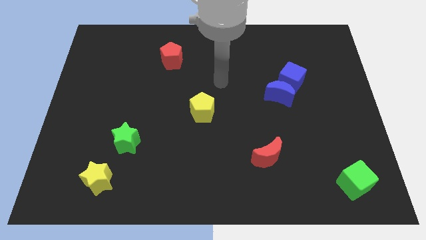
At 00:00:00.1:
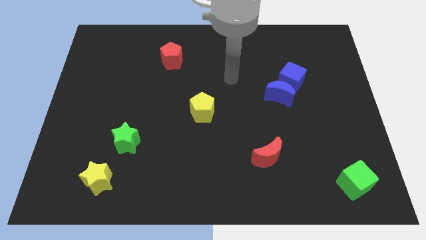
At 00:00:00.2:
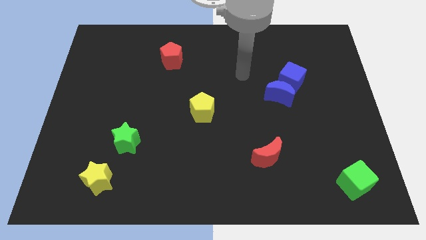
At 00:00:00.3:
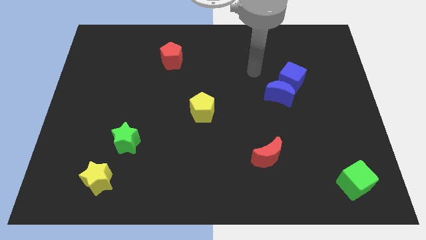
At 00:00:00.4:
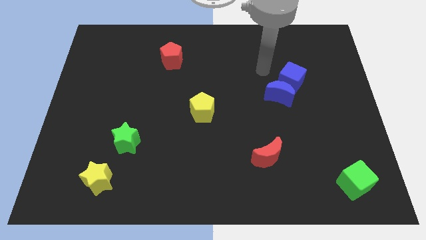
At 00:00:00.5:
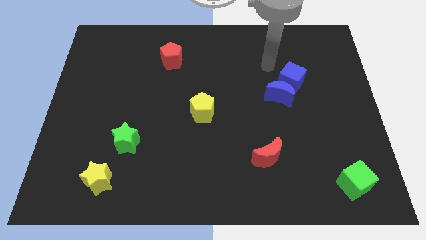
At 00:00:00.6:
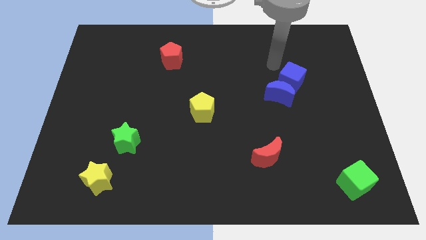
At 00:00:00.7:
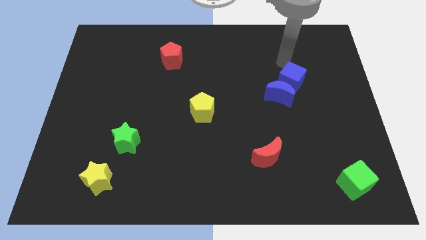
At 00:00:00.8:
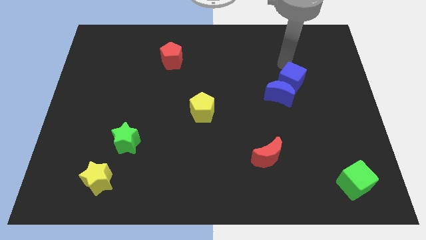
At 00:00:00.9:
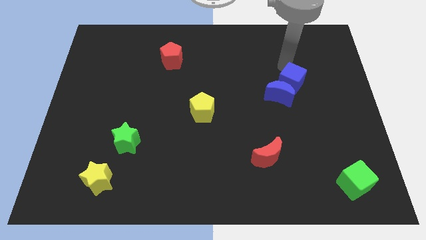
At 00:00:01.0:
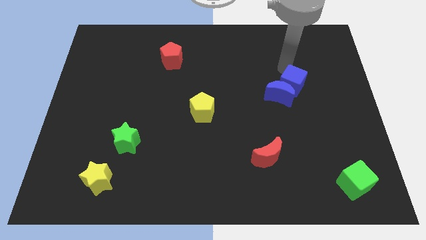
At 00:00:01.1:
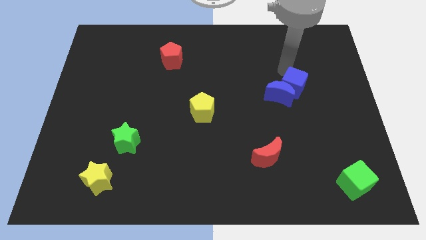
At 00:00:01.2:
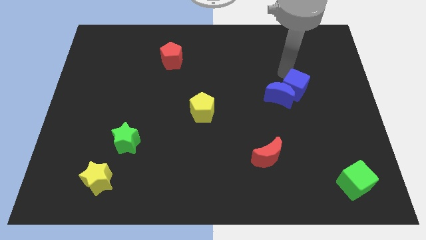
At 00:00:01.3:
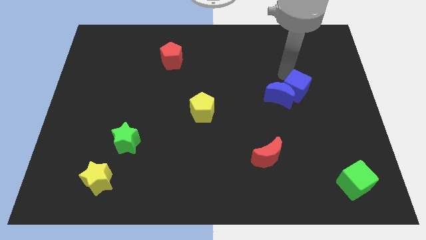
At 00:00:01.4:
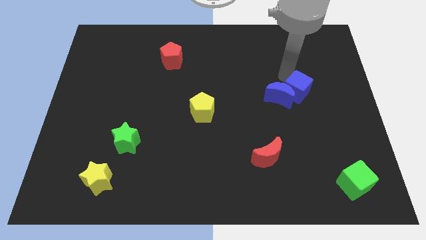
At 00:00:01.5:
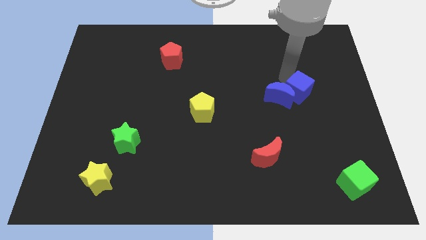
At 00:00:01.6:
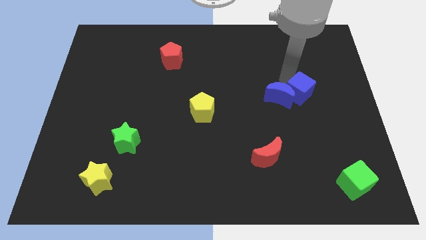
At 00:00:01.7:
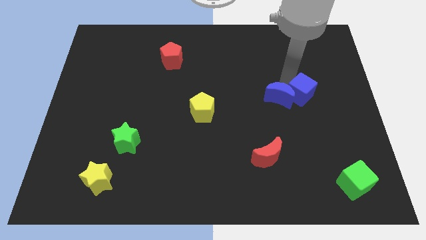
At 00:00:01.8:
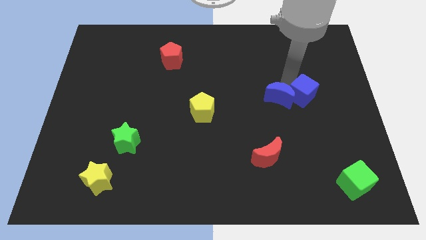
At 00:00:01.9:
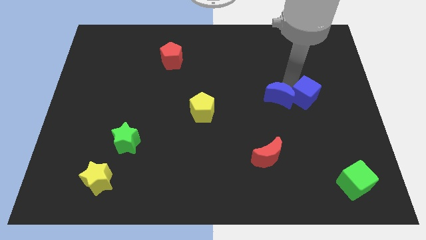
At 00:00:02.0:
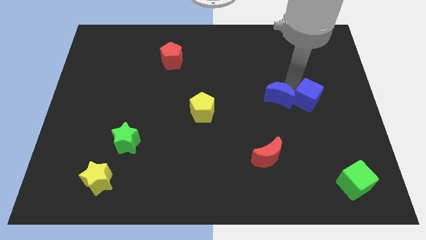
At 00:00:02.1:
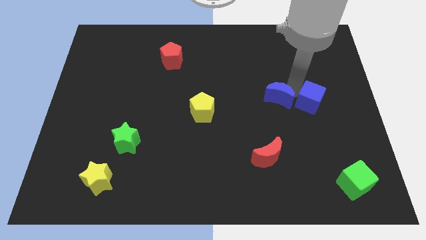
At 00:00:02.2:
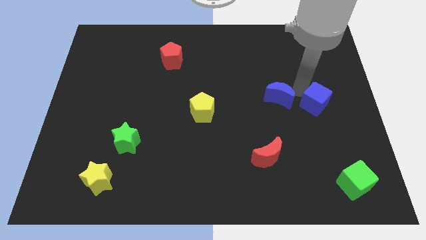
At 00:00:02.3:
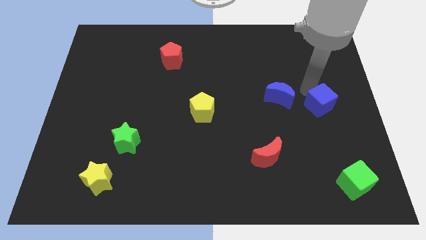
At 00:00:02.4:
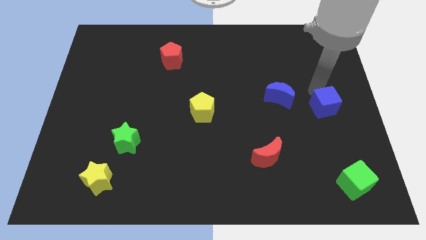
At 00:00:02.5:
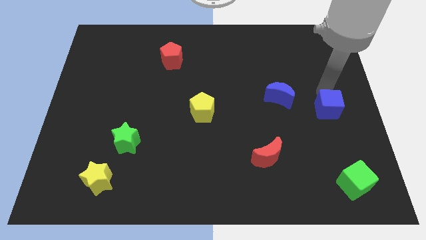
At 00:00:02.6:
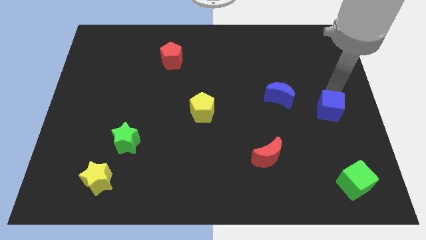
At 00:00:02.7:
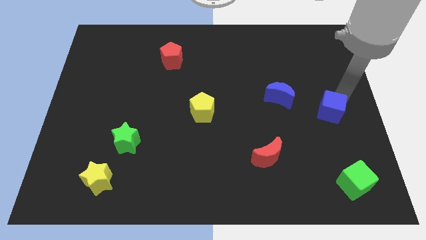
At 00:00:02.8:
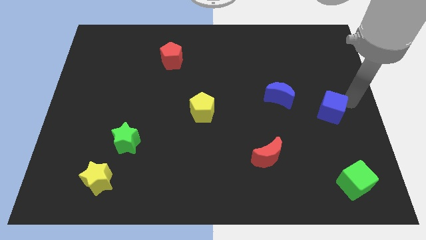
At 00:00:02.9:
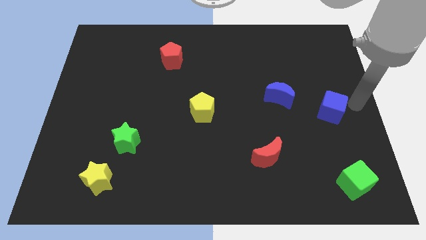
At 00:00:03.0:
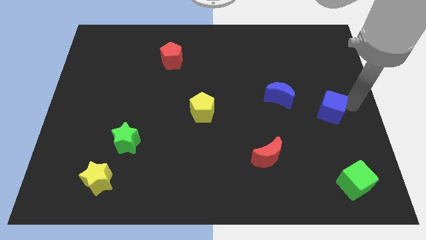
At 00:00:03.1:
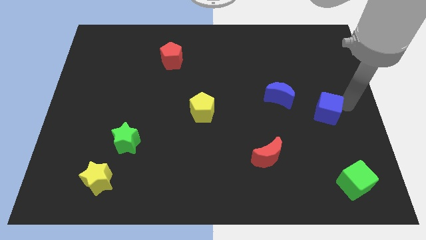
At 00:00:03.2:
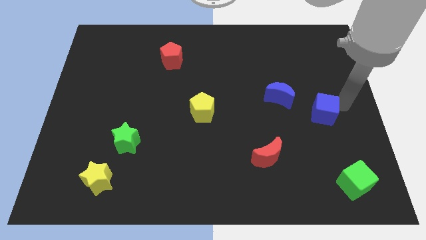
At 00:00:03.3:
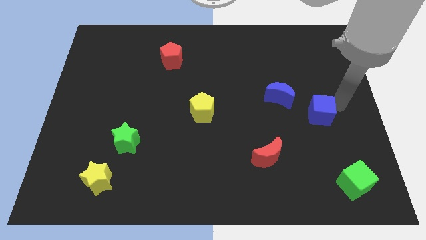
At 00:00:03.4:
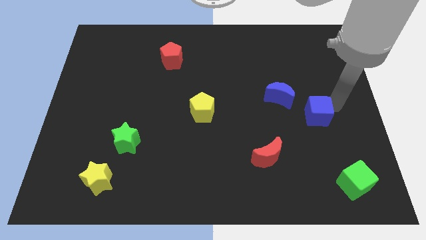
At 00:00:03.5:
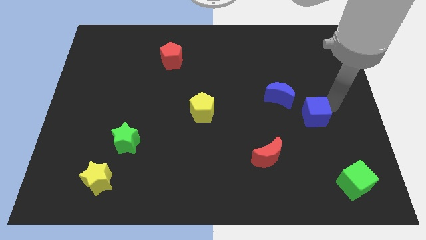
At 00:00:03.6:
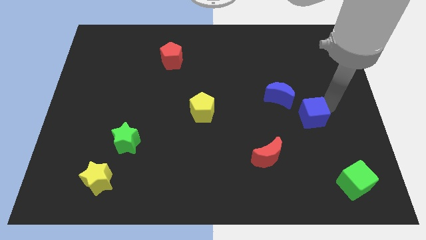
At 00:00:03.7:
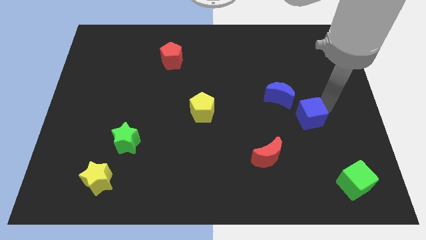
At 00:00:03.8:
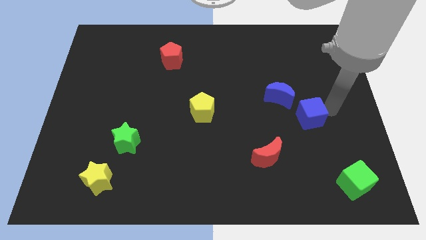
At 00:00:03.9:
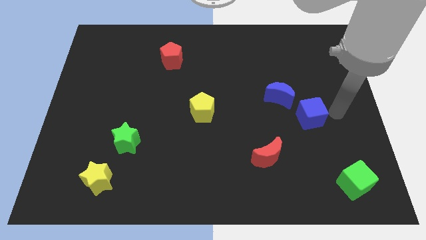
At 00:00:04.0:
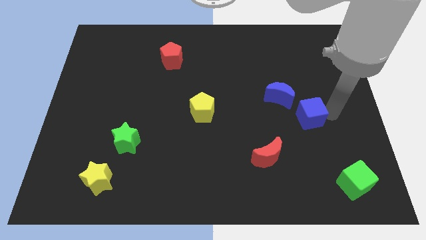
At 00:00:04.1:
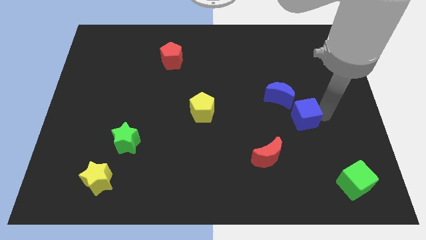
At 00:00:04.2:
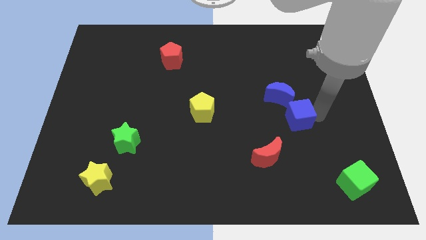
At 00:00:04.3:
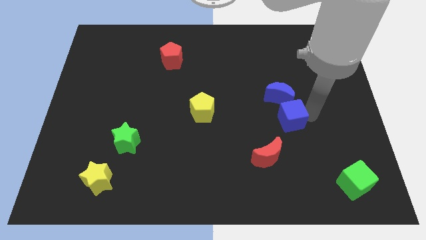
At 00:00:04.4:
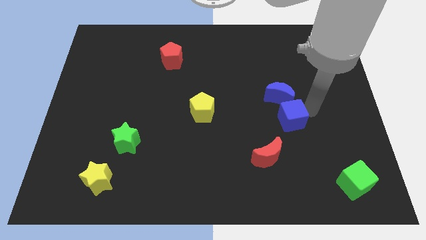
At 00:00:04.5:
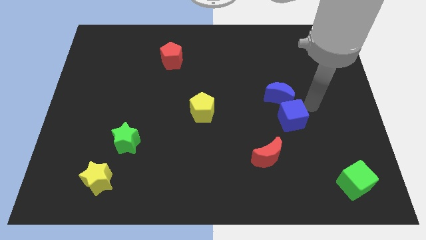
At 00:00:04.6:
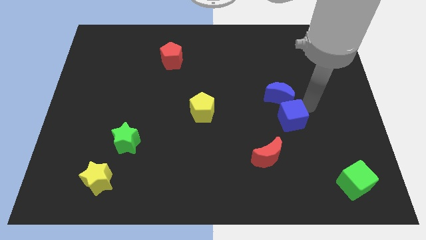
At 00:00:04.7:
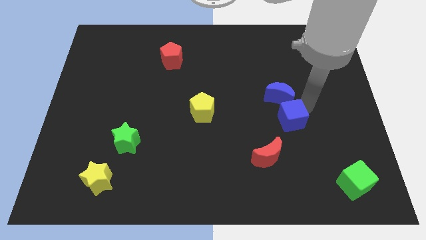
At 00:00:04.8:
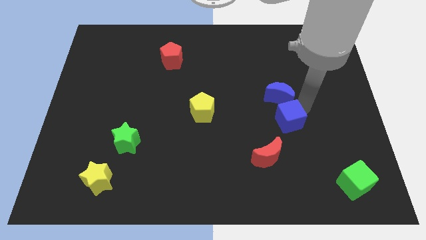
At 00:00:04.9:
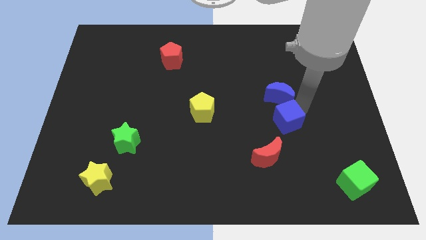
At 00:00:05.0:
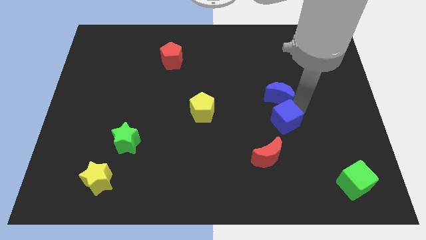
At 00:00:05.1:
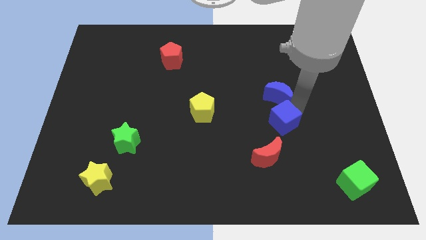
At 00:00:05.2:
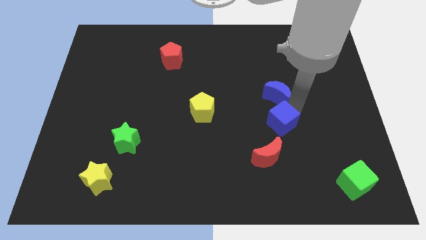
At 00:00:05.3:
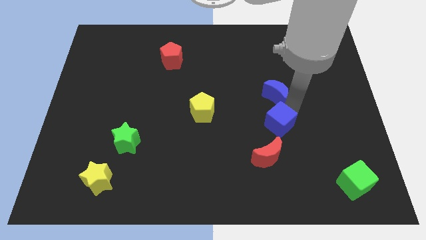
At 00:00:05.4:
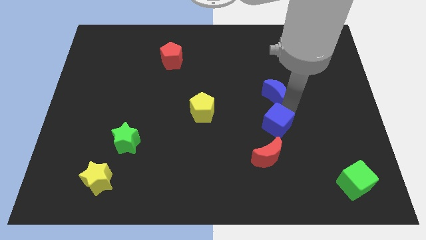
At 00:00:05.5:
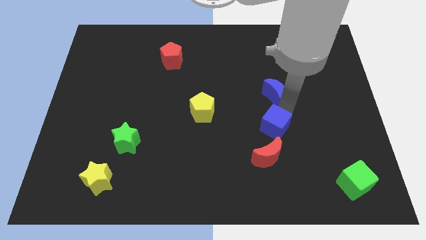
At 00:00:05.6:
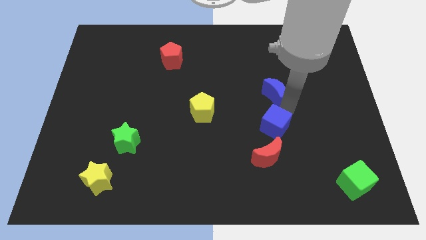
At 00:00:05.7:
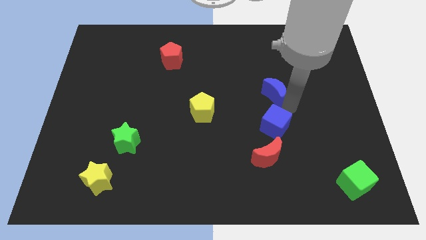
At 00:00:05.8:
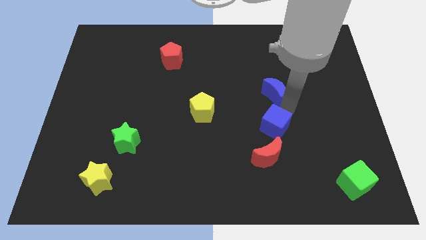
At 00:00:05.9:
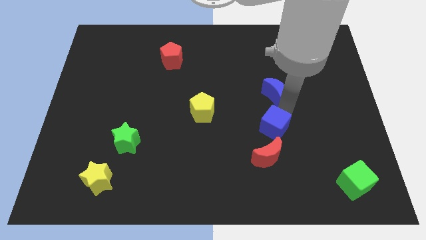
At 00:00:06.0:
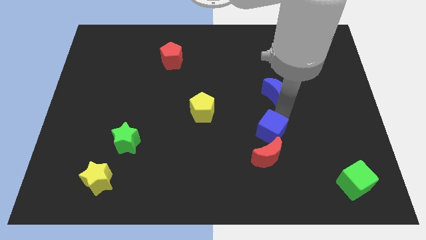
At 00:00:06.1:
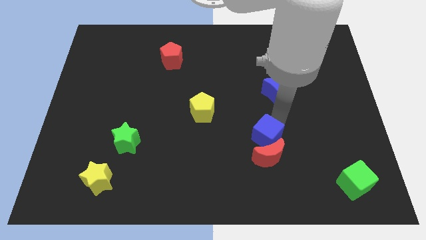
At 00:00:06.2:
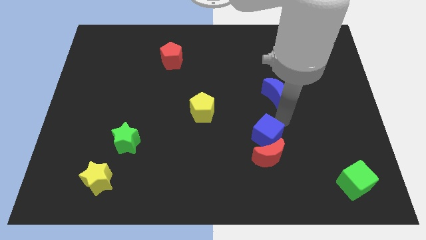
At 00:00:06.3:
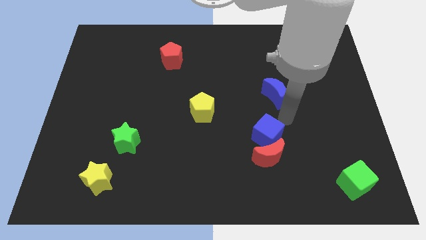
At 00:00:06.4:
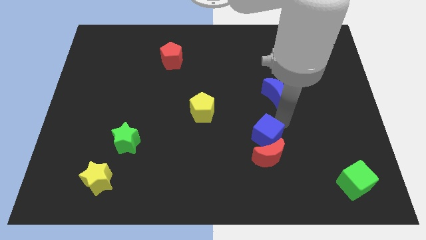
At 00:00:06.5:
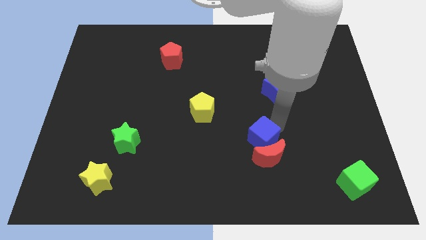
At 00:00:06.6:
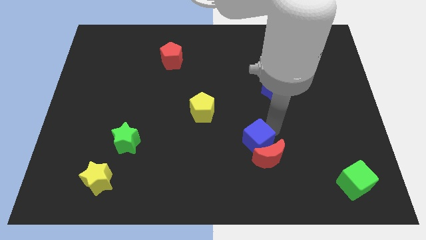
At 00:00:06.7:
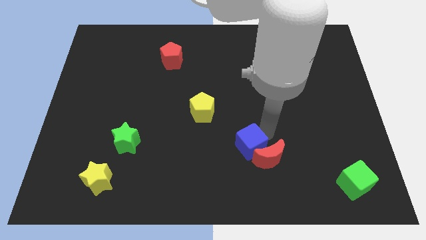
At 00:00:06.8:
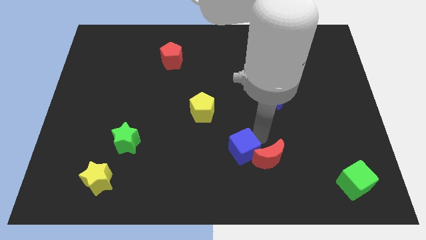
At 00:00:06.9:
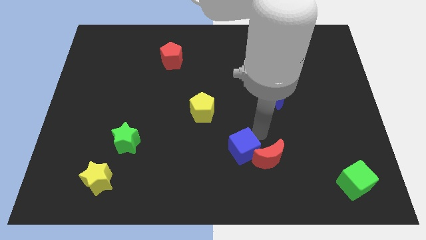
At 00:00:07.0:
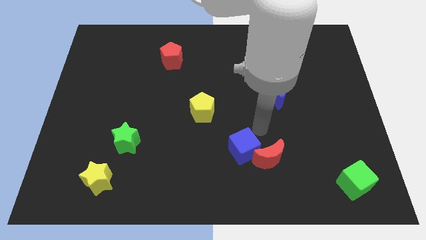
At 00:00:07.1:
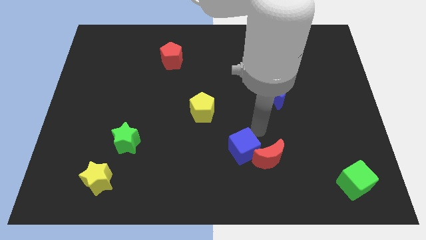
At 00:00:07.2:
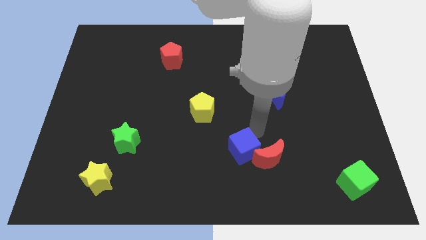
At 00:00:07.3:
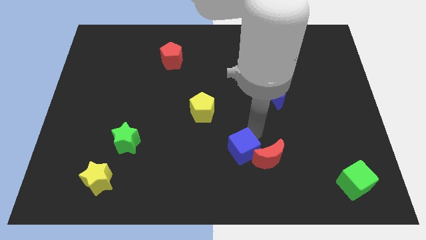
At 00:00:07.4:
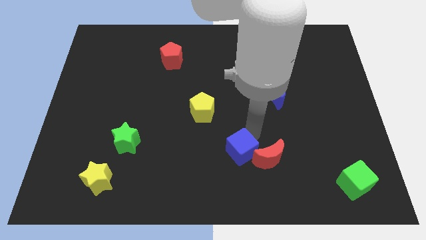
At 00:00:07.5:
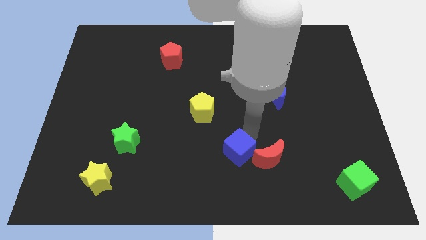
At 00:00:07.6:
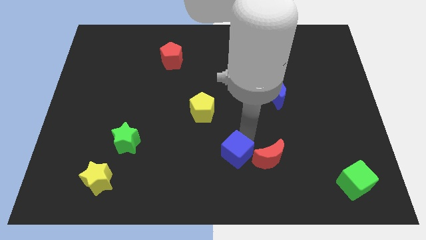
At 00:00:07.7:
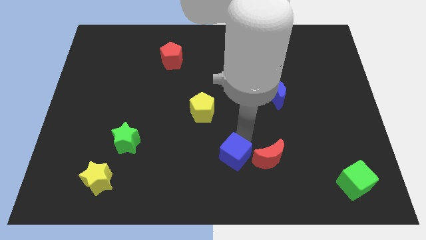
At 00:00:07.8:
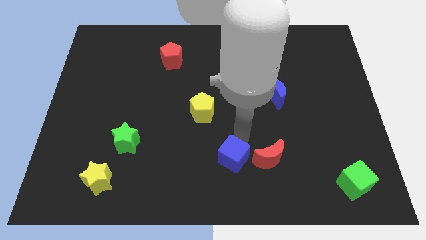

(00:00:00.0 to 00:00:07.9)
slide the blue cube to the bottom
